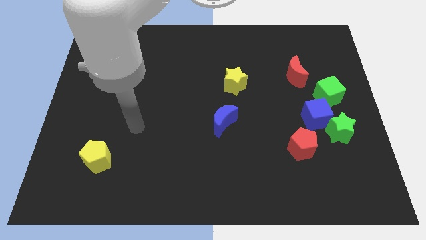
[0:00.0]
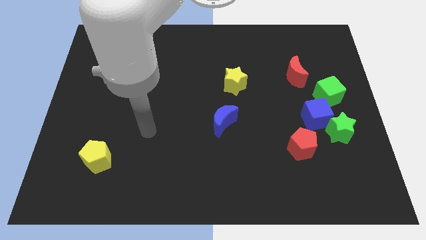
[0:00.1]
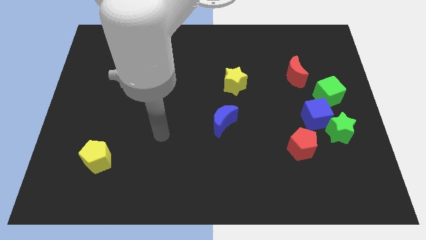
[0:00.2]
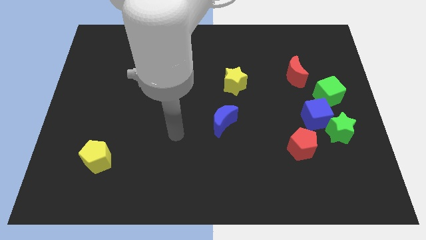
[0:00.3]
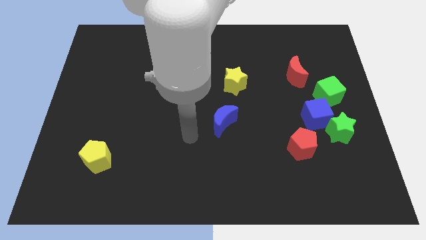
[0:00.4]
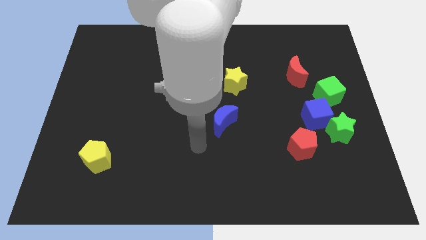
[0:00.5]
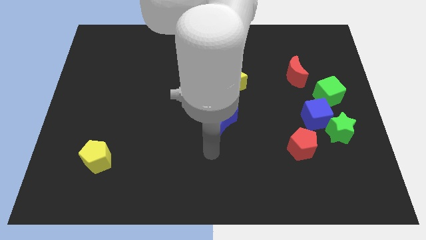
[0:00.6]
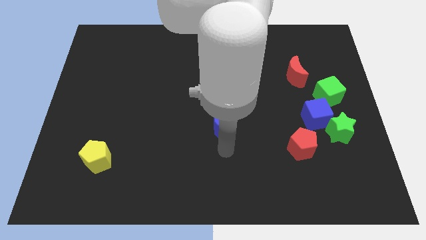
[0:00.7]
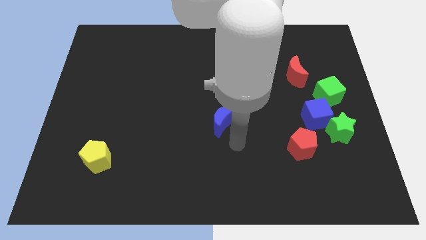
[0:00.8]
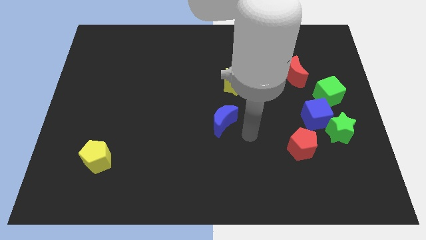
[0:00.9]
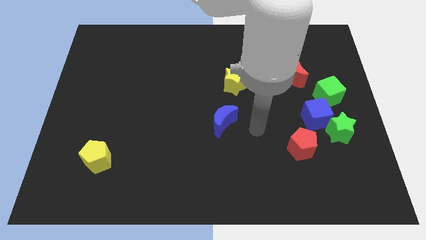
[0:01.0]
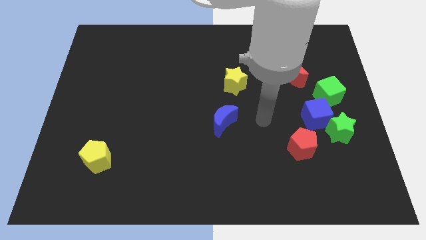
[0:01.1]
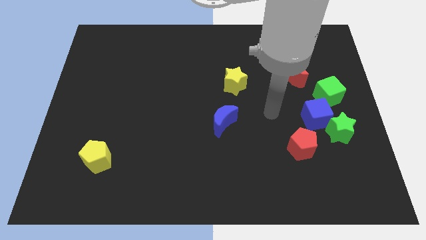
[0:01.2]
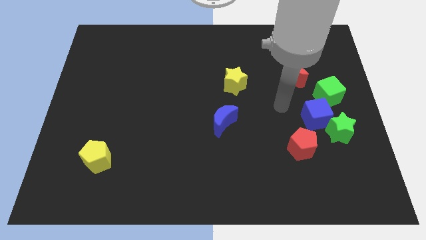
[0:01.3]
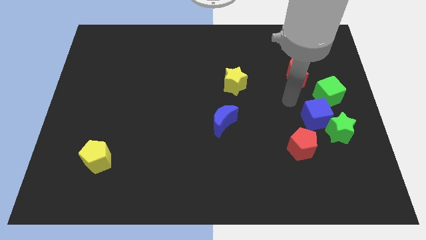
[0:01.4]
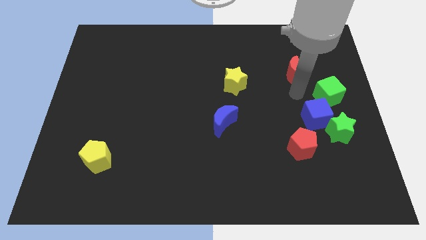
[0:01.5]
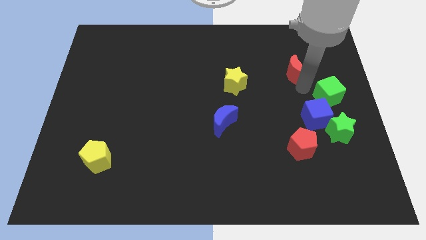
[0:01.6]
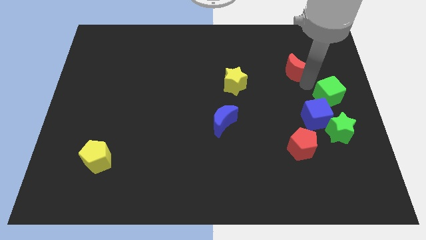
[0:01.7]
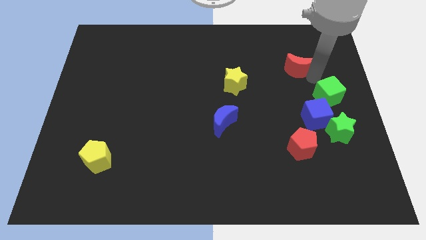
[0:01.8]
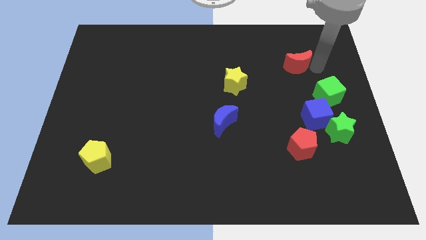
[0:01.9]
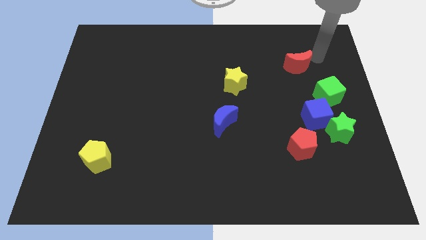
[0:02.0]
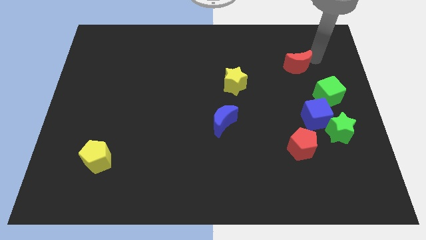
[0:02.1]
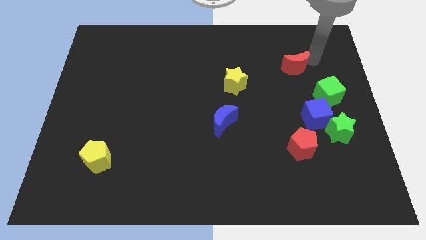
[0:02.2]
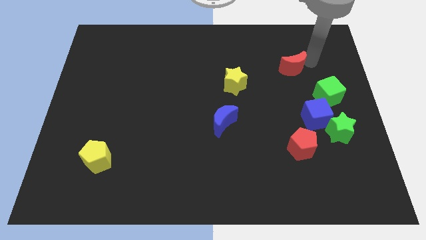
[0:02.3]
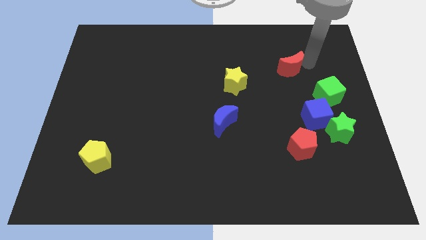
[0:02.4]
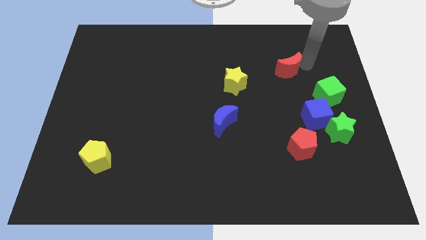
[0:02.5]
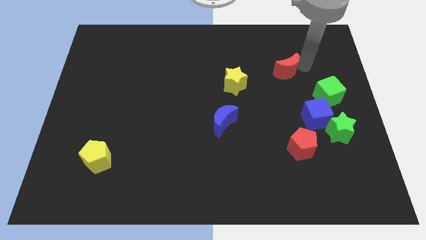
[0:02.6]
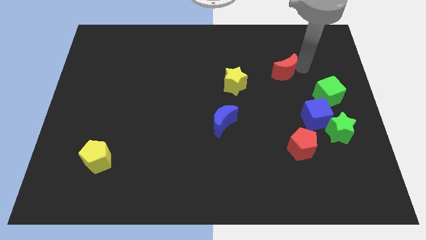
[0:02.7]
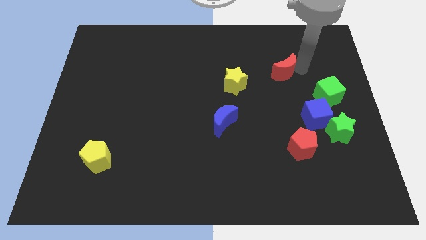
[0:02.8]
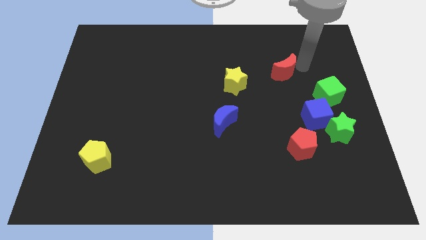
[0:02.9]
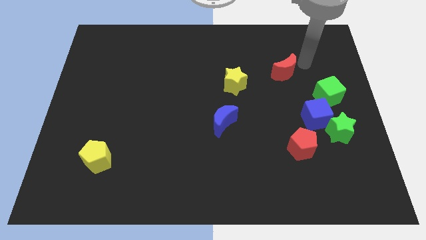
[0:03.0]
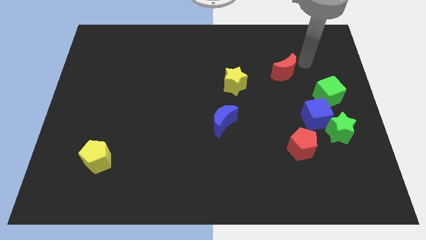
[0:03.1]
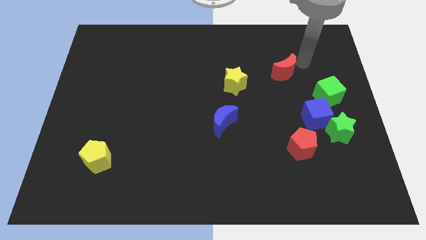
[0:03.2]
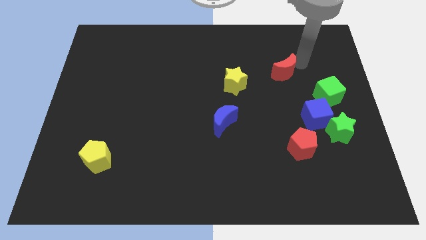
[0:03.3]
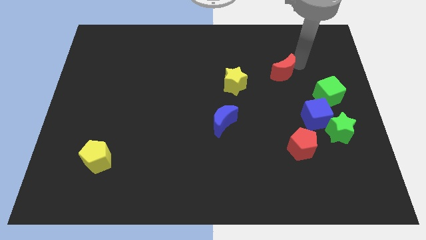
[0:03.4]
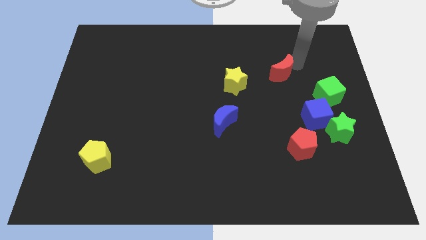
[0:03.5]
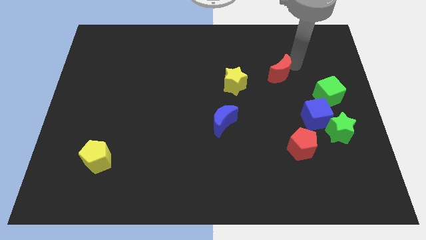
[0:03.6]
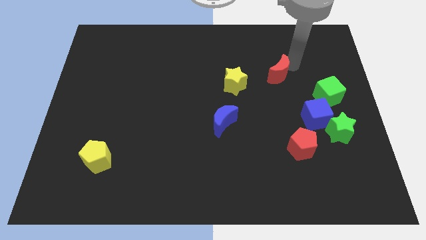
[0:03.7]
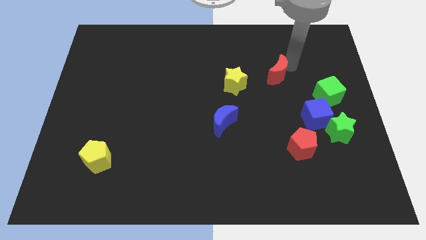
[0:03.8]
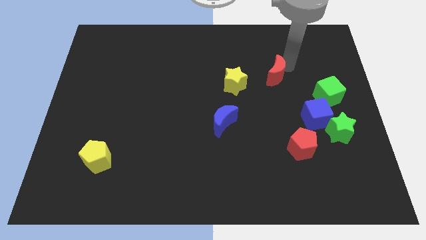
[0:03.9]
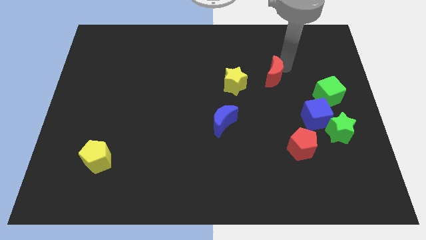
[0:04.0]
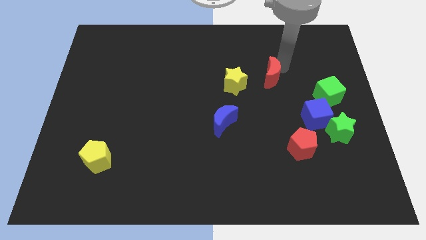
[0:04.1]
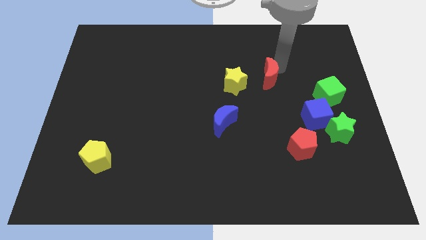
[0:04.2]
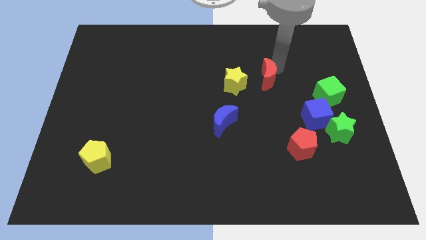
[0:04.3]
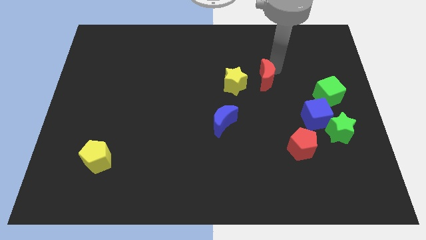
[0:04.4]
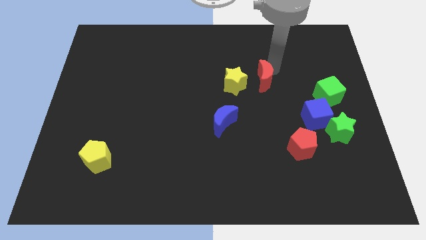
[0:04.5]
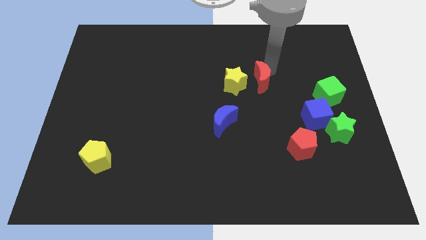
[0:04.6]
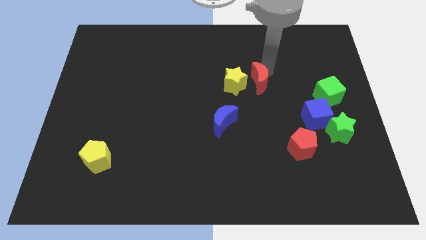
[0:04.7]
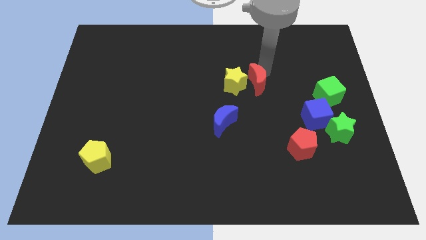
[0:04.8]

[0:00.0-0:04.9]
slide the red moon next to the yellow star

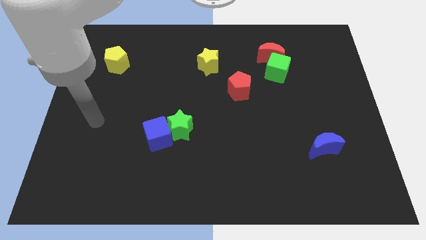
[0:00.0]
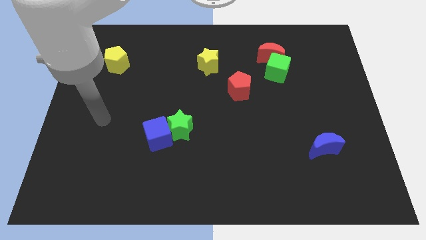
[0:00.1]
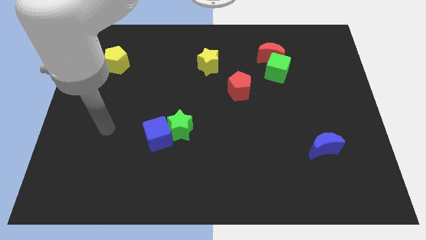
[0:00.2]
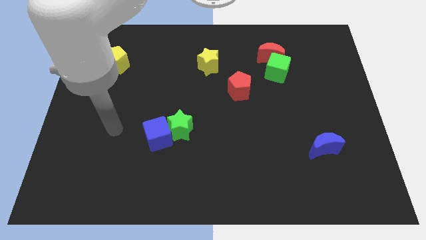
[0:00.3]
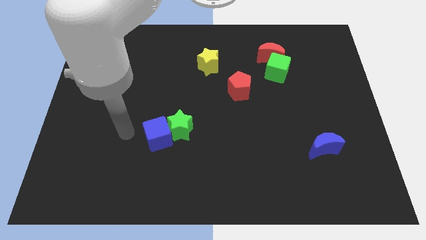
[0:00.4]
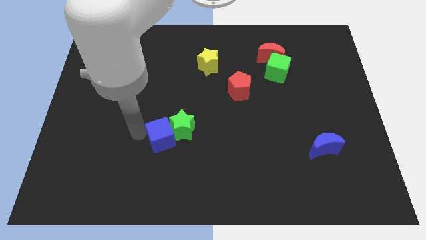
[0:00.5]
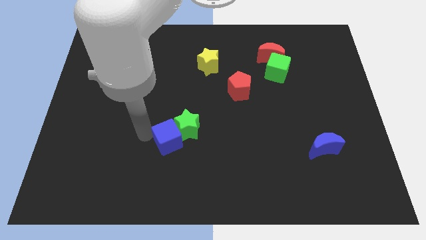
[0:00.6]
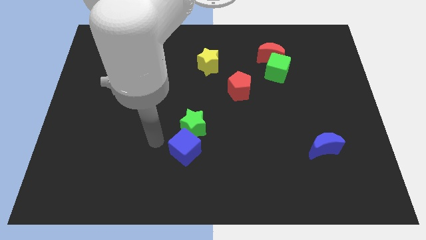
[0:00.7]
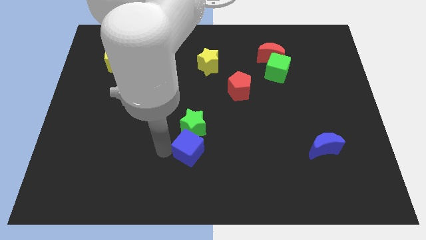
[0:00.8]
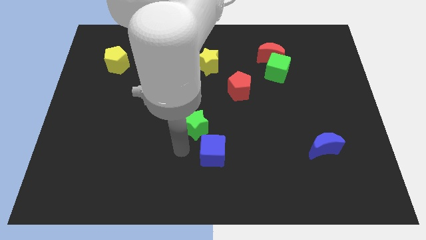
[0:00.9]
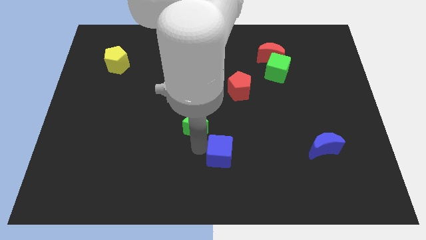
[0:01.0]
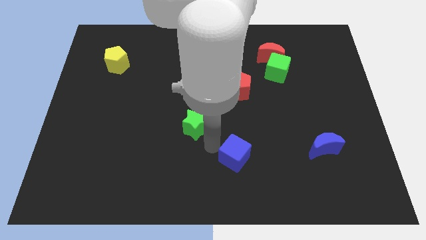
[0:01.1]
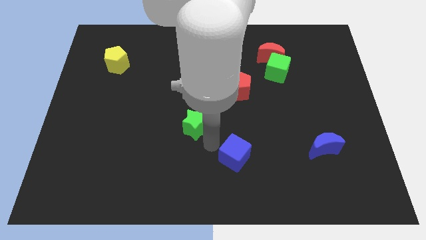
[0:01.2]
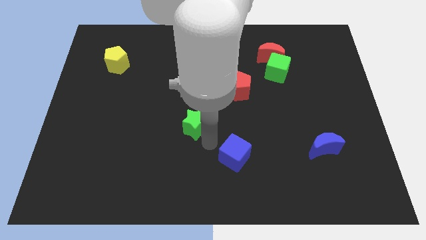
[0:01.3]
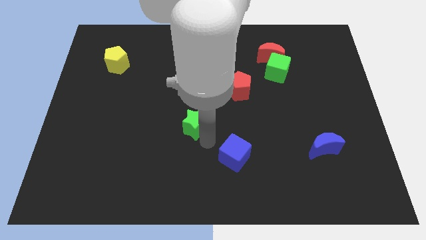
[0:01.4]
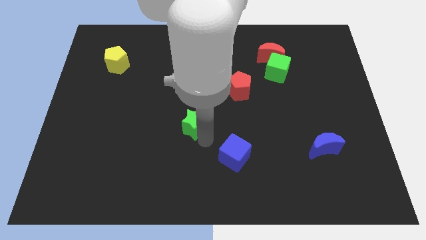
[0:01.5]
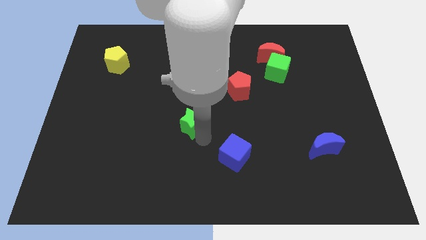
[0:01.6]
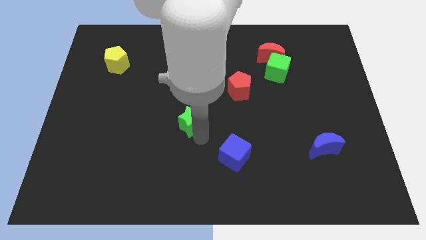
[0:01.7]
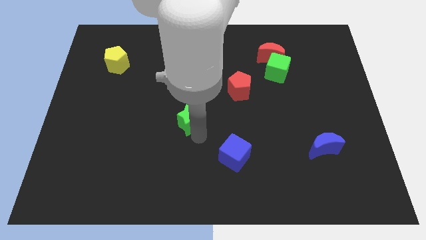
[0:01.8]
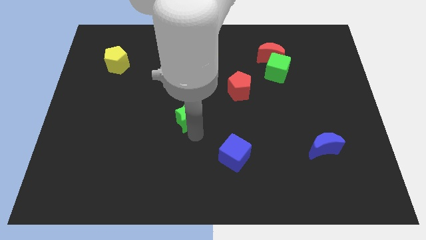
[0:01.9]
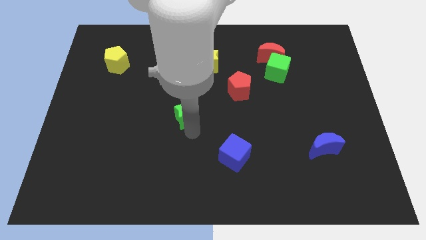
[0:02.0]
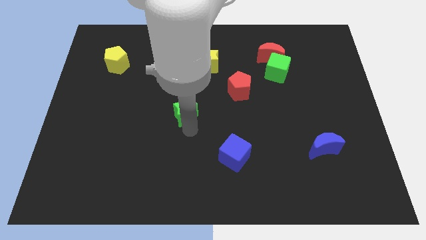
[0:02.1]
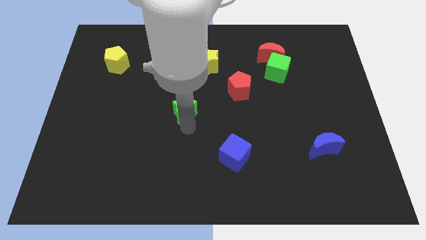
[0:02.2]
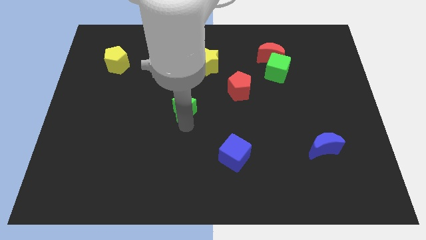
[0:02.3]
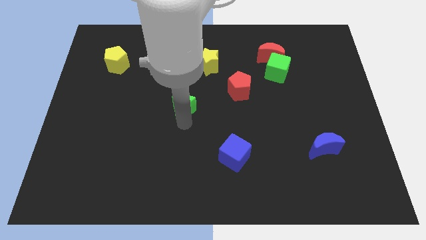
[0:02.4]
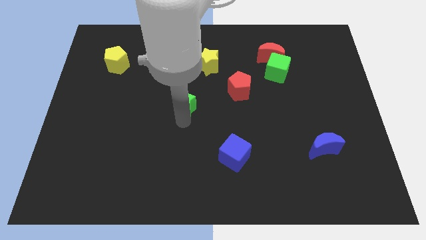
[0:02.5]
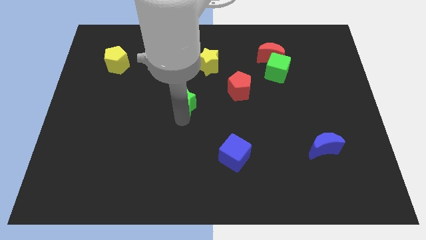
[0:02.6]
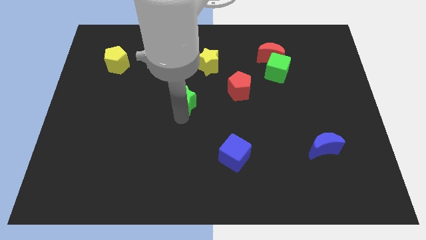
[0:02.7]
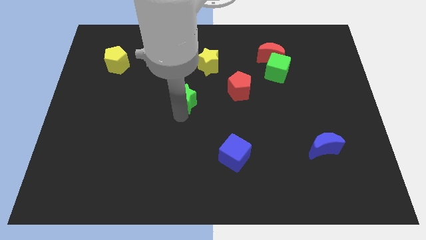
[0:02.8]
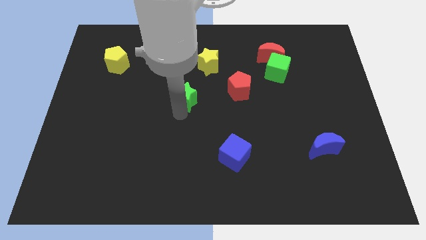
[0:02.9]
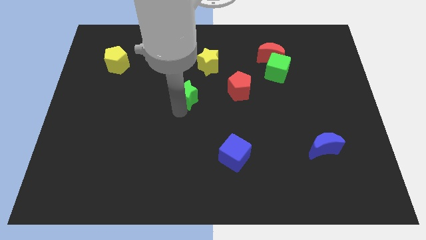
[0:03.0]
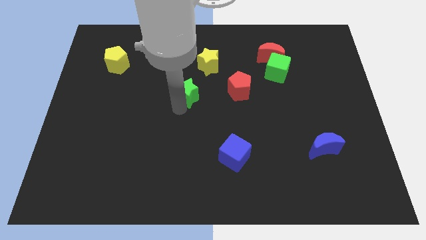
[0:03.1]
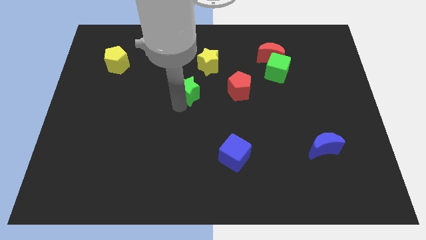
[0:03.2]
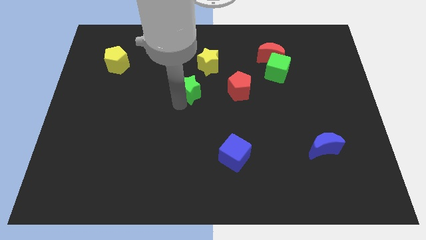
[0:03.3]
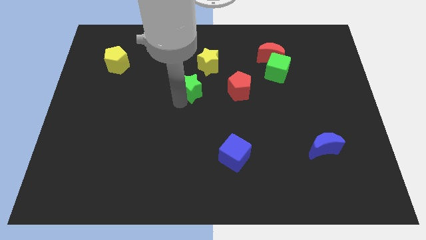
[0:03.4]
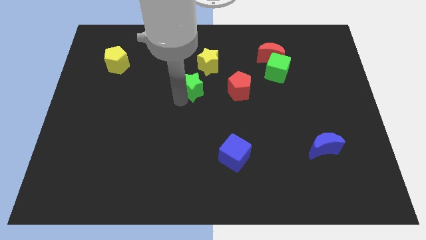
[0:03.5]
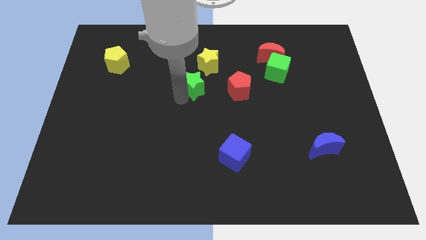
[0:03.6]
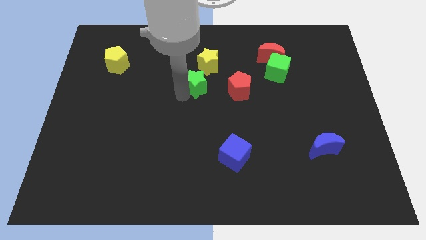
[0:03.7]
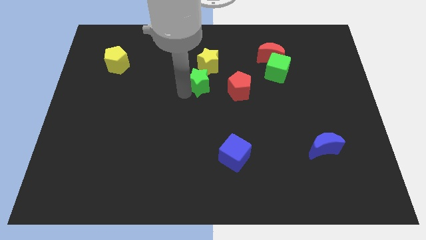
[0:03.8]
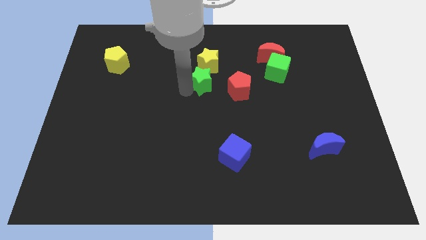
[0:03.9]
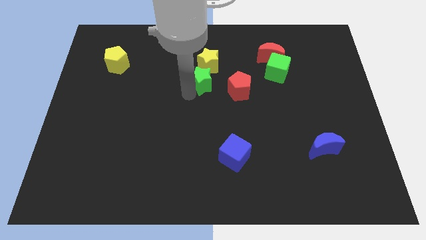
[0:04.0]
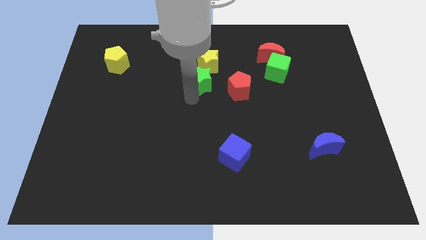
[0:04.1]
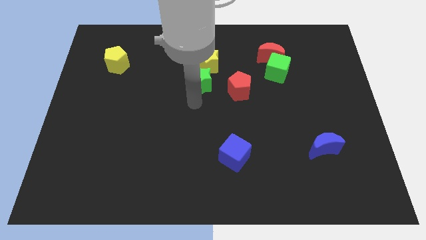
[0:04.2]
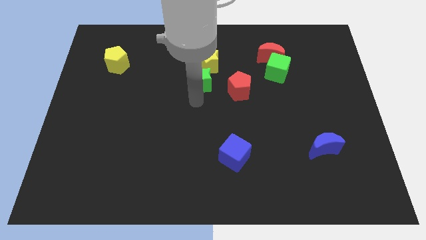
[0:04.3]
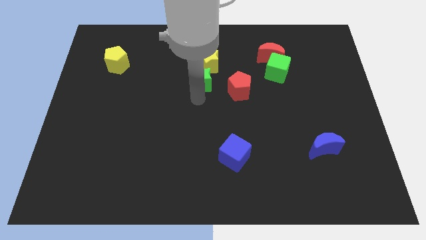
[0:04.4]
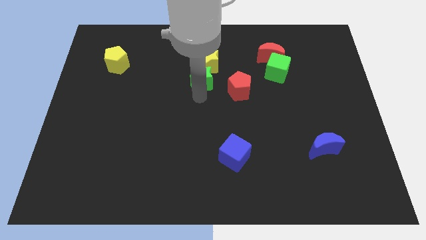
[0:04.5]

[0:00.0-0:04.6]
slide the green star to the yellow star
